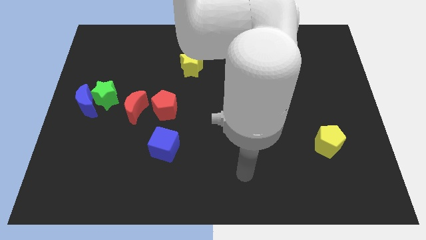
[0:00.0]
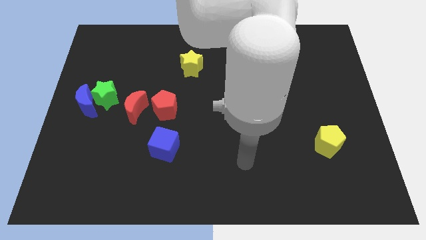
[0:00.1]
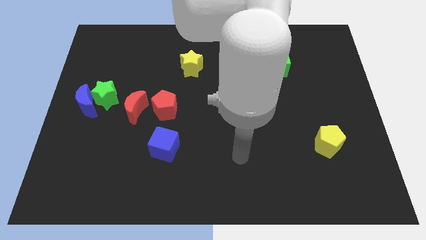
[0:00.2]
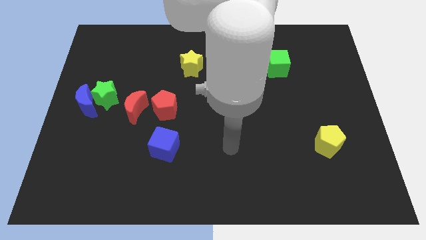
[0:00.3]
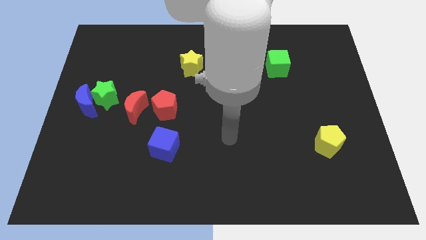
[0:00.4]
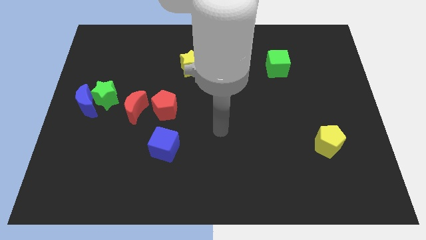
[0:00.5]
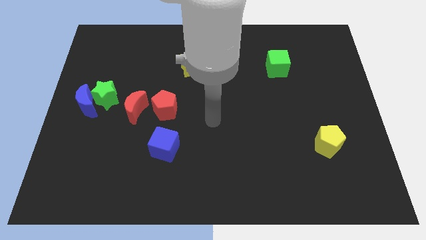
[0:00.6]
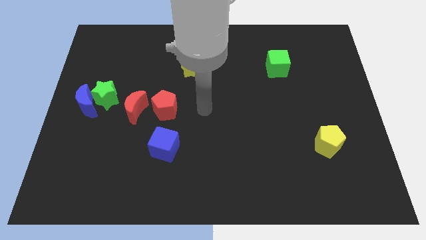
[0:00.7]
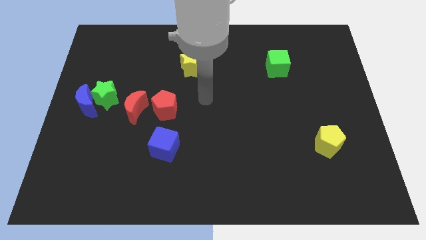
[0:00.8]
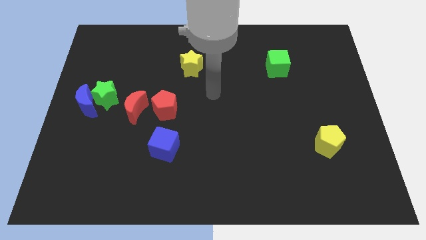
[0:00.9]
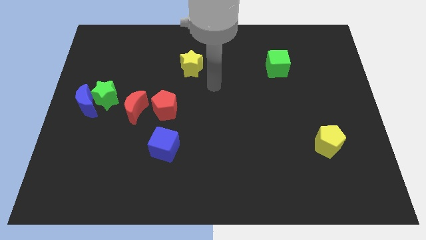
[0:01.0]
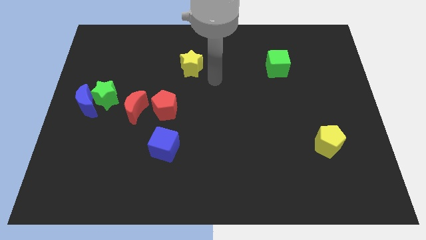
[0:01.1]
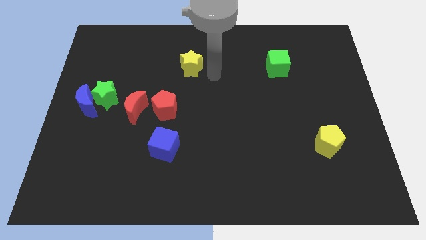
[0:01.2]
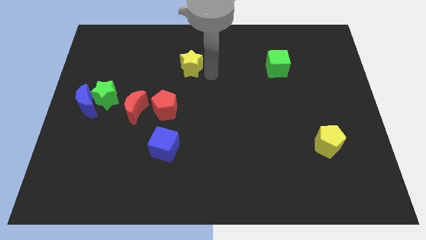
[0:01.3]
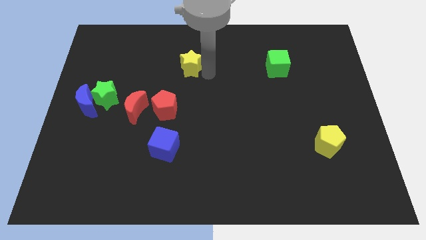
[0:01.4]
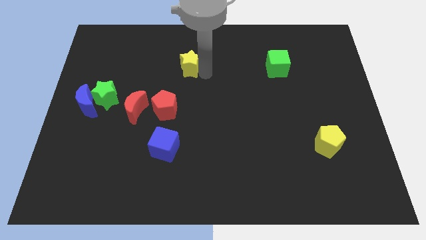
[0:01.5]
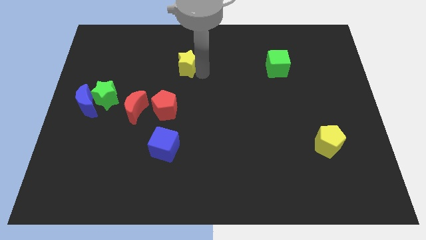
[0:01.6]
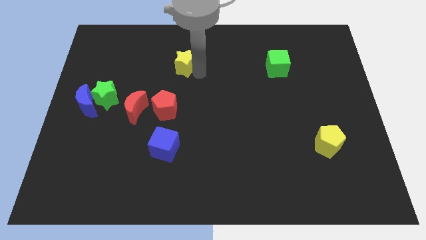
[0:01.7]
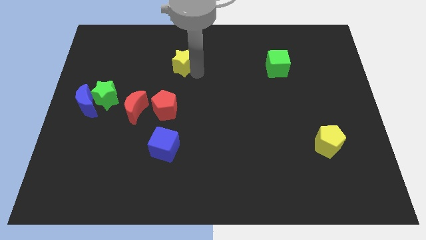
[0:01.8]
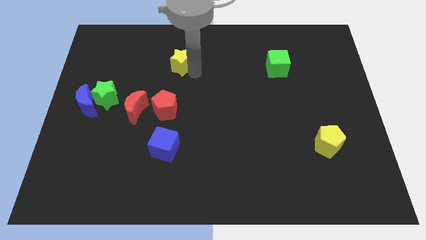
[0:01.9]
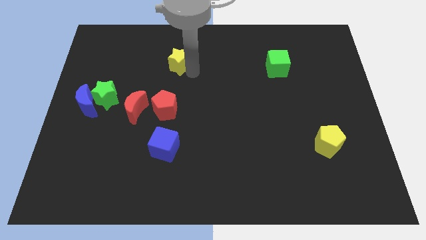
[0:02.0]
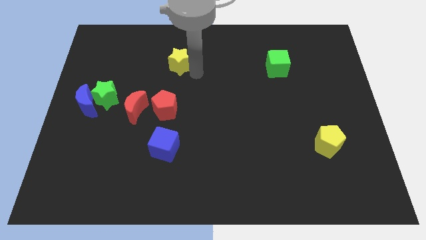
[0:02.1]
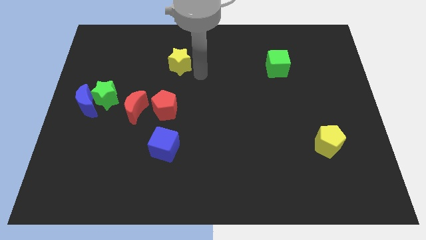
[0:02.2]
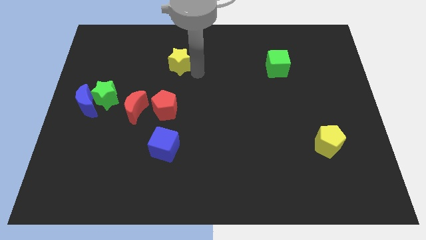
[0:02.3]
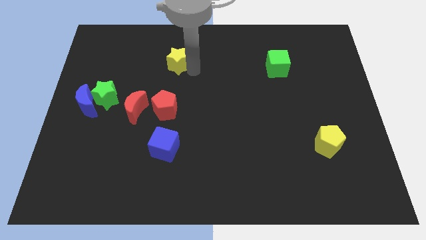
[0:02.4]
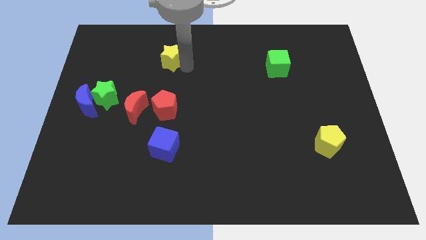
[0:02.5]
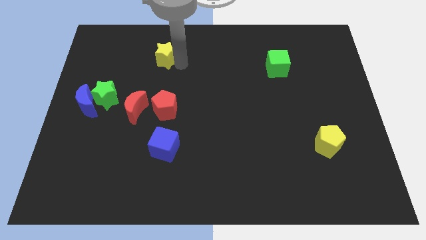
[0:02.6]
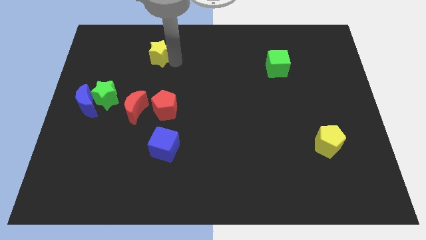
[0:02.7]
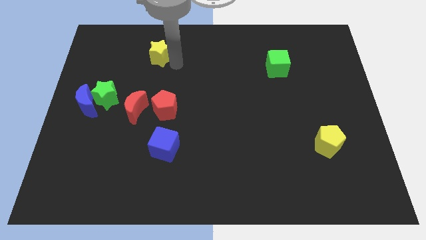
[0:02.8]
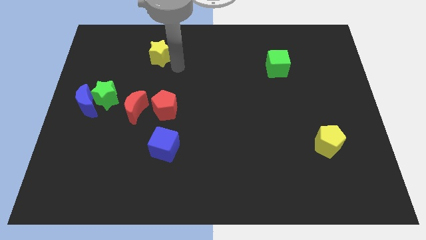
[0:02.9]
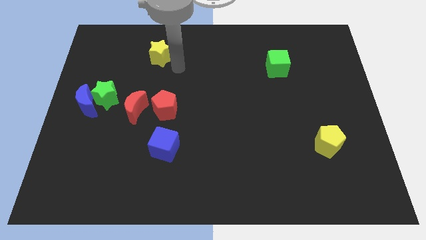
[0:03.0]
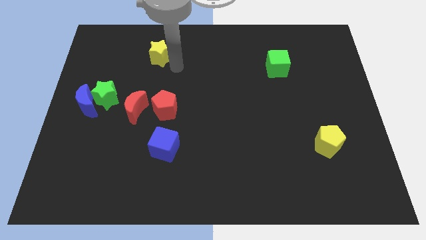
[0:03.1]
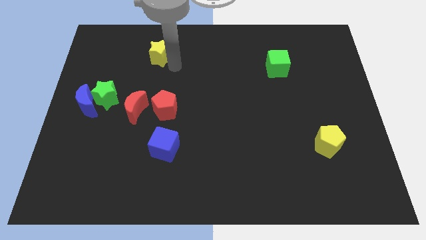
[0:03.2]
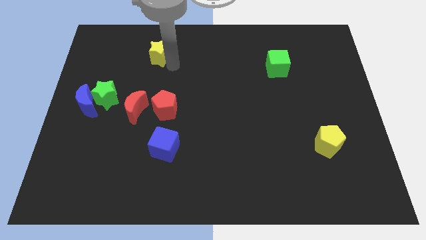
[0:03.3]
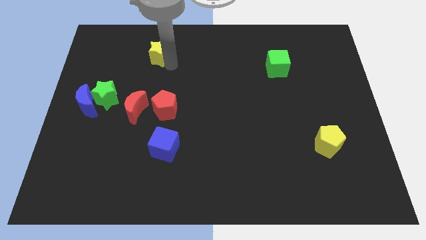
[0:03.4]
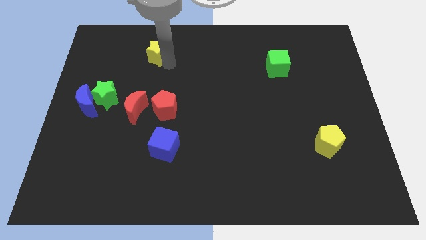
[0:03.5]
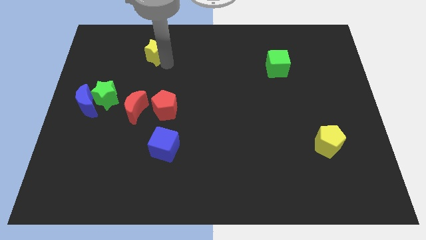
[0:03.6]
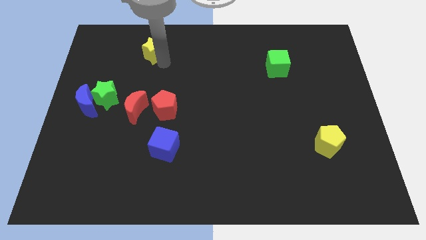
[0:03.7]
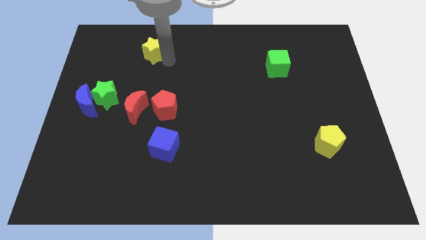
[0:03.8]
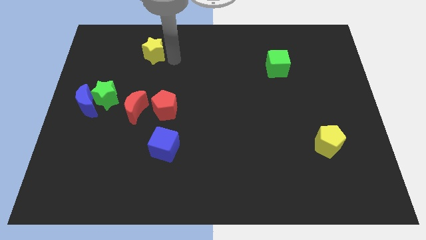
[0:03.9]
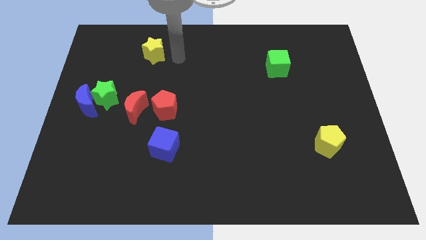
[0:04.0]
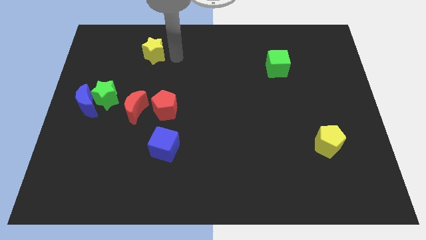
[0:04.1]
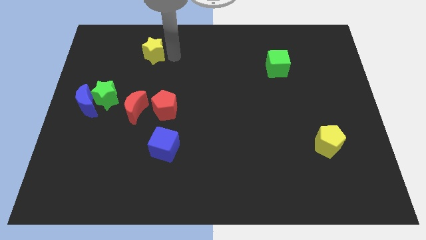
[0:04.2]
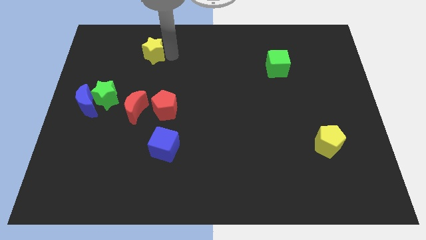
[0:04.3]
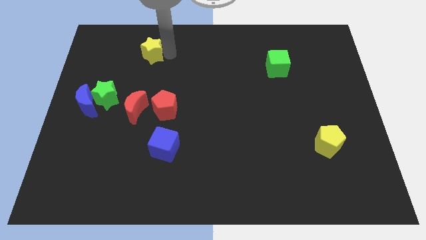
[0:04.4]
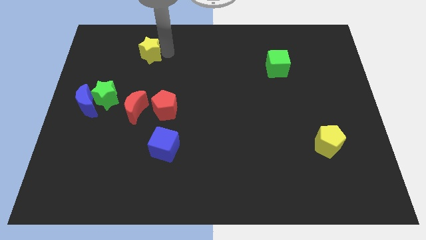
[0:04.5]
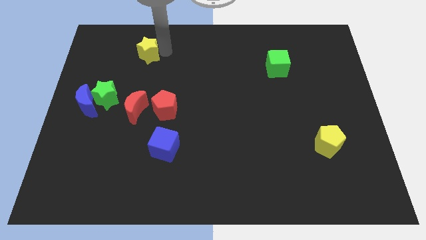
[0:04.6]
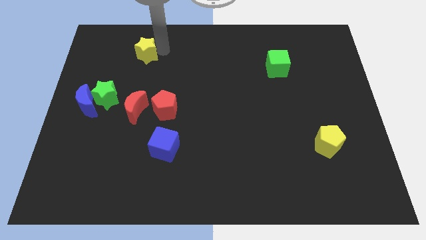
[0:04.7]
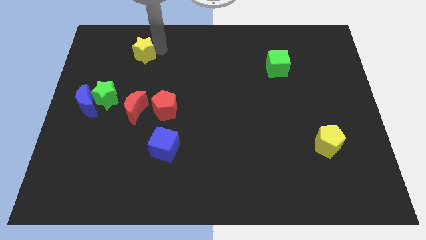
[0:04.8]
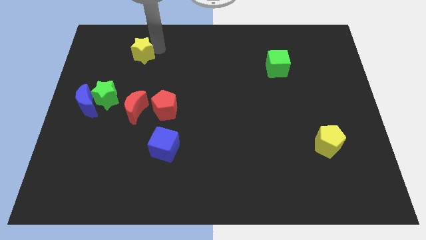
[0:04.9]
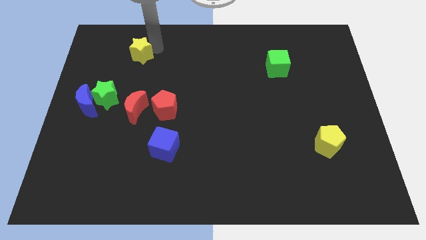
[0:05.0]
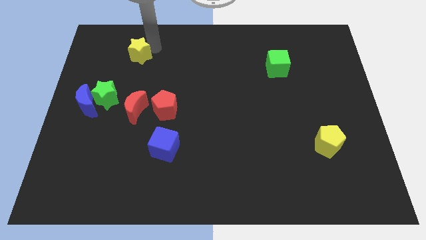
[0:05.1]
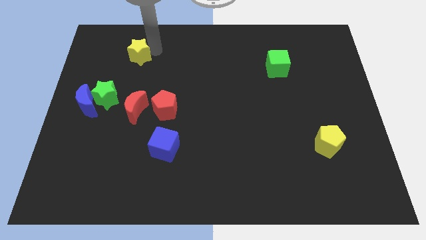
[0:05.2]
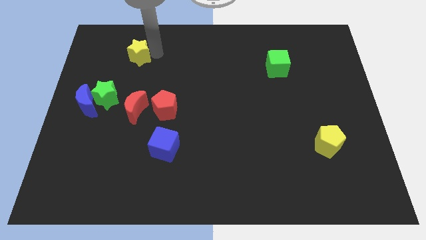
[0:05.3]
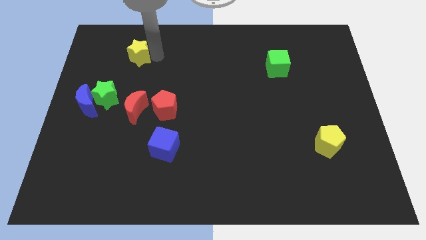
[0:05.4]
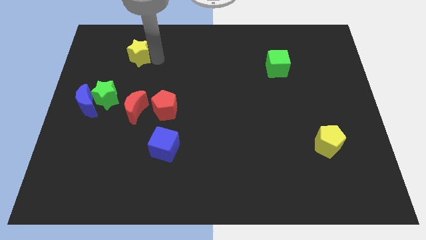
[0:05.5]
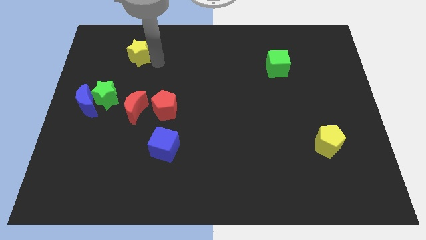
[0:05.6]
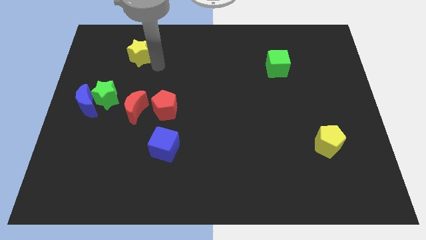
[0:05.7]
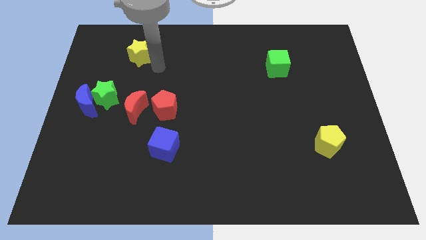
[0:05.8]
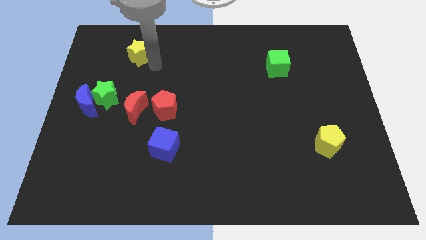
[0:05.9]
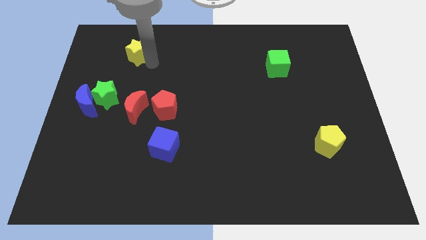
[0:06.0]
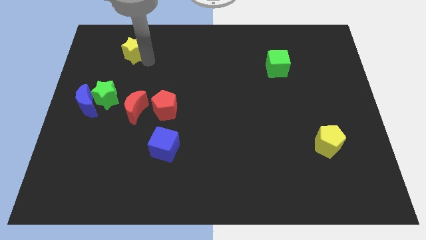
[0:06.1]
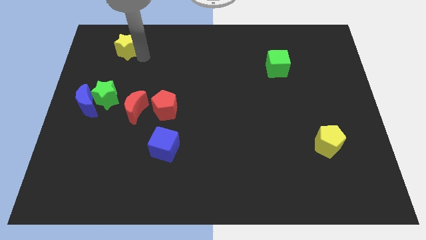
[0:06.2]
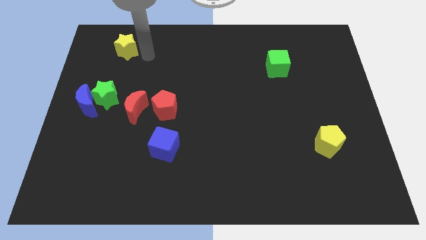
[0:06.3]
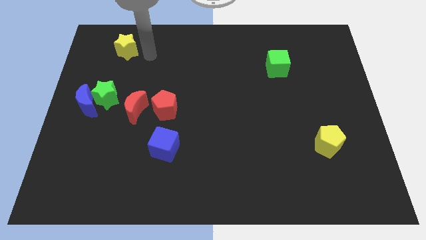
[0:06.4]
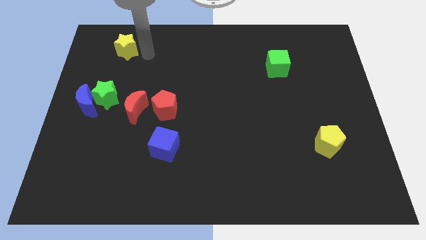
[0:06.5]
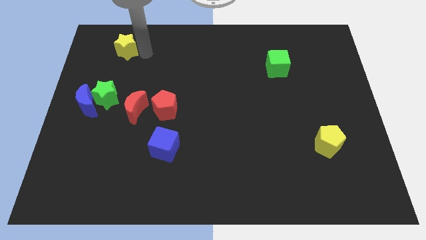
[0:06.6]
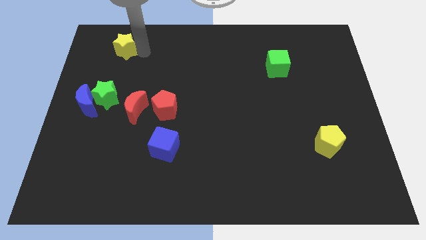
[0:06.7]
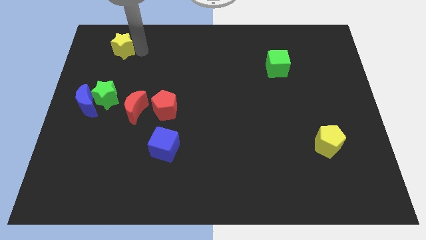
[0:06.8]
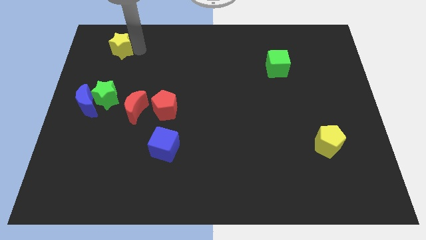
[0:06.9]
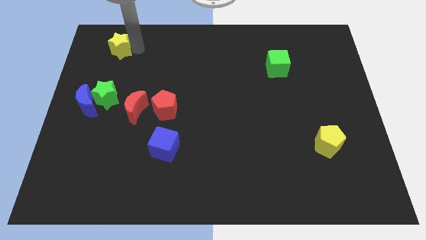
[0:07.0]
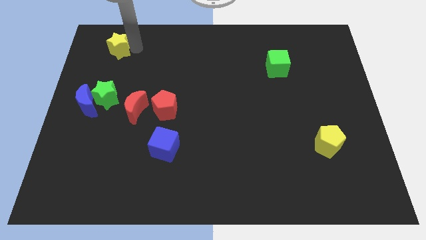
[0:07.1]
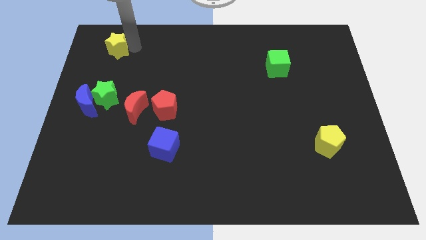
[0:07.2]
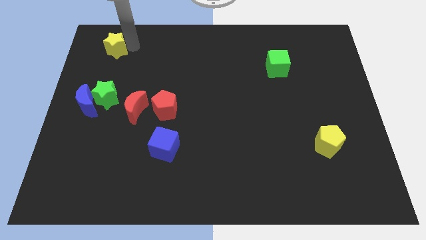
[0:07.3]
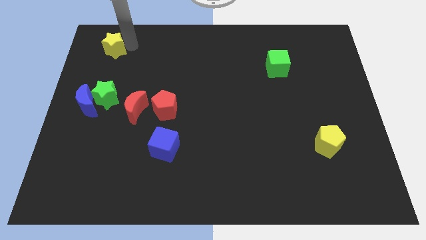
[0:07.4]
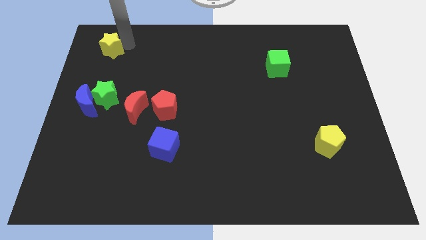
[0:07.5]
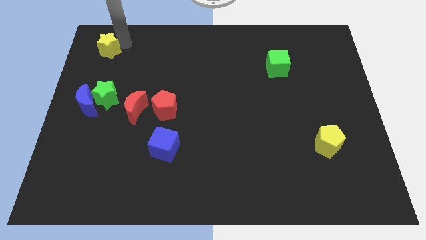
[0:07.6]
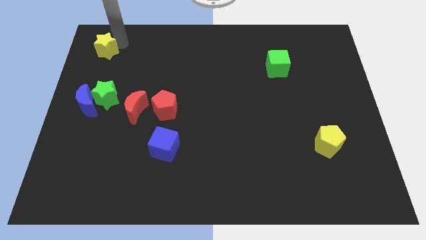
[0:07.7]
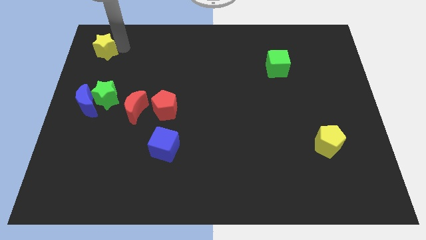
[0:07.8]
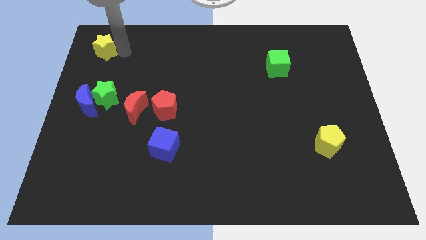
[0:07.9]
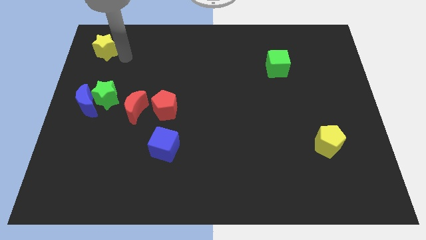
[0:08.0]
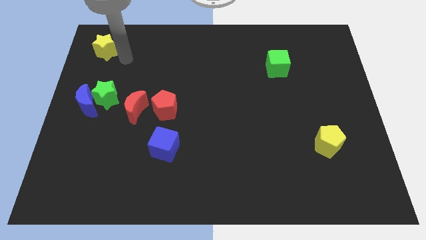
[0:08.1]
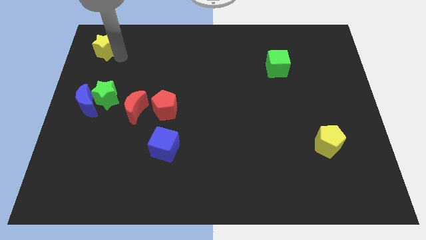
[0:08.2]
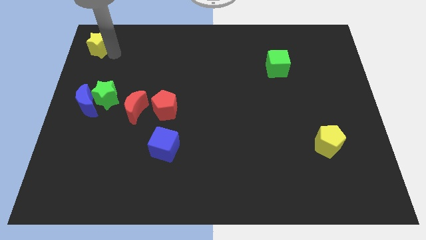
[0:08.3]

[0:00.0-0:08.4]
push the yellow star to the top left of the board
